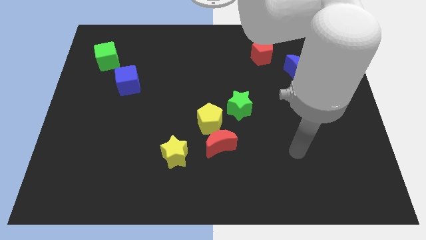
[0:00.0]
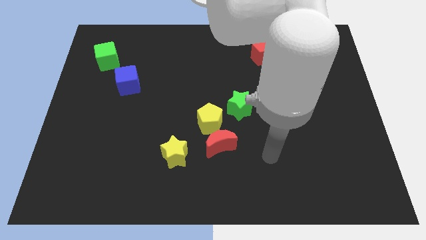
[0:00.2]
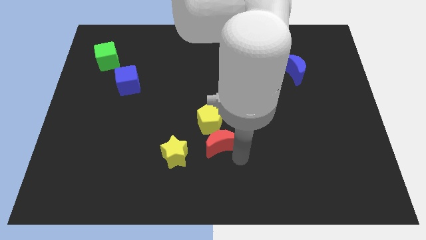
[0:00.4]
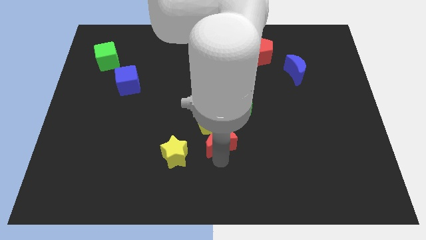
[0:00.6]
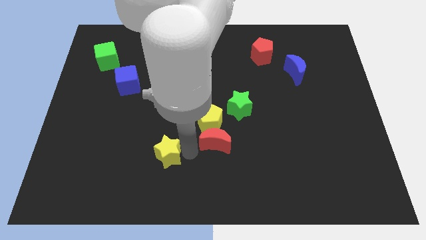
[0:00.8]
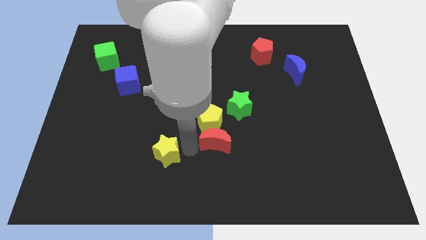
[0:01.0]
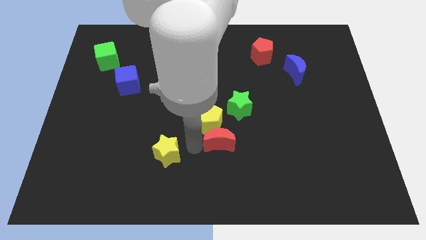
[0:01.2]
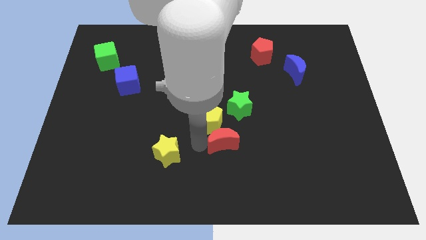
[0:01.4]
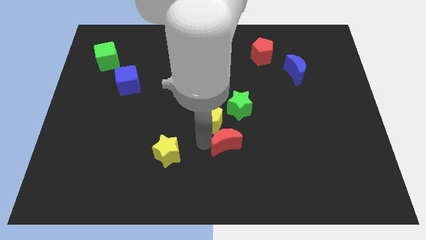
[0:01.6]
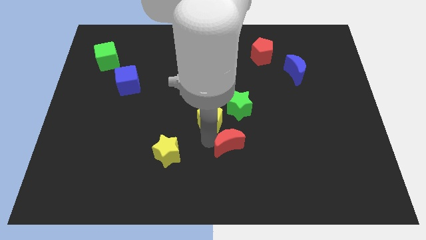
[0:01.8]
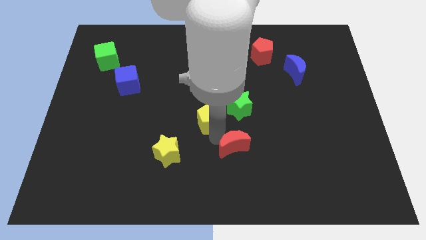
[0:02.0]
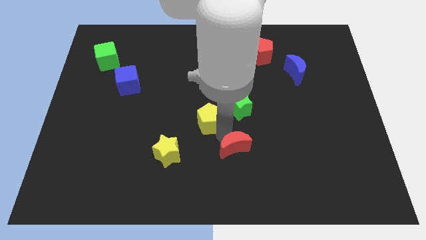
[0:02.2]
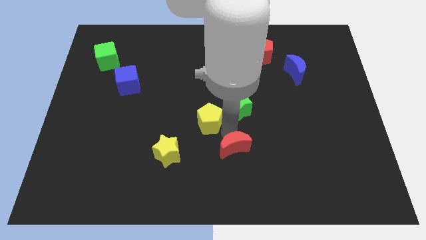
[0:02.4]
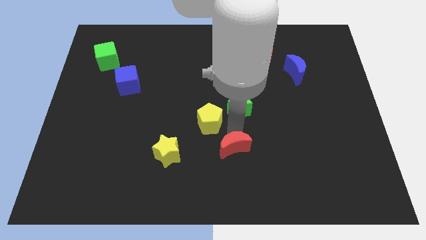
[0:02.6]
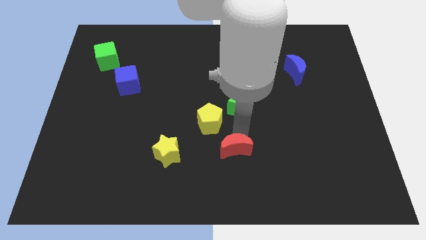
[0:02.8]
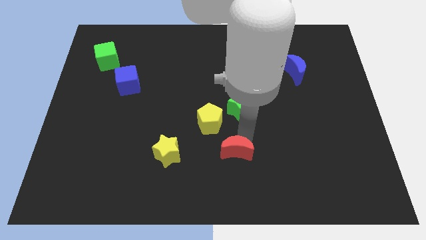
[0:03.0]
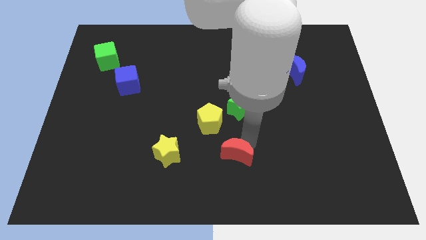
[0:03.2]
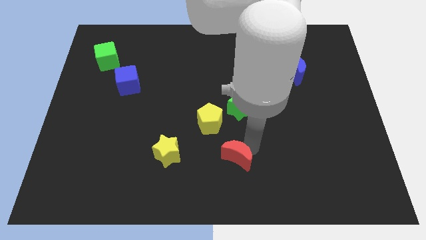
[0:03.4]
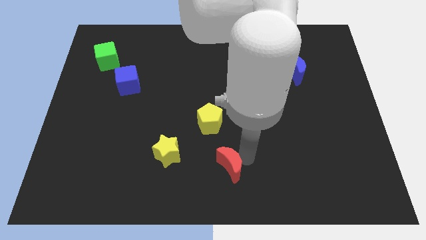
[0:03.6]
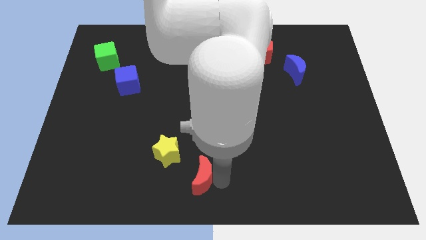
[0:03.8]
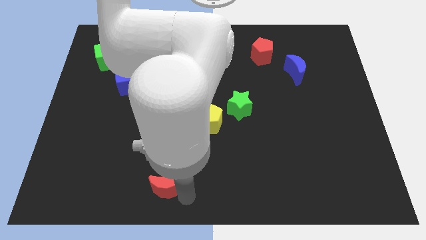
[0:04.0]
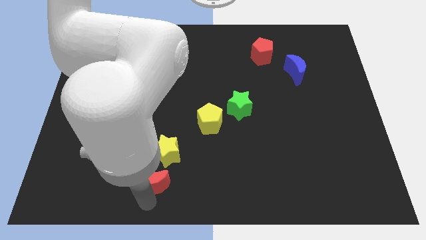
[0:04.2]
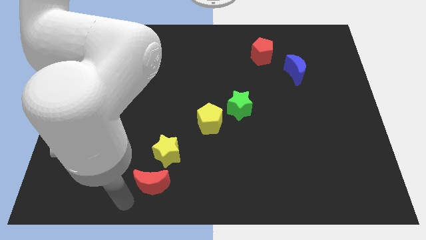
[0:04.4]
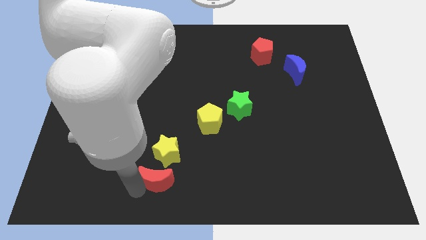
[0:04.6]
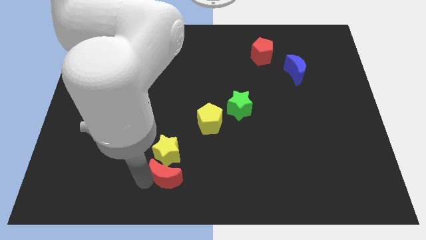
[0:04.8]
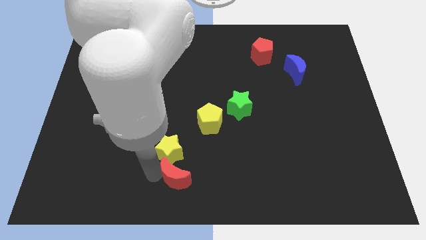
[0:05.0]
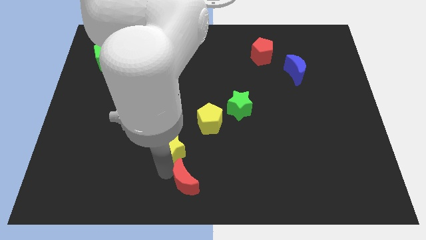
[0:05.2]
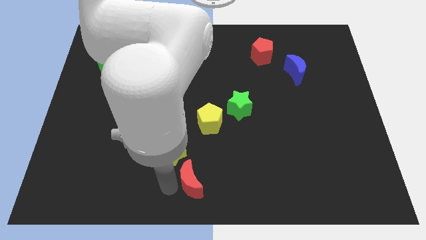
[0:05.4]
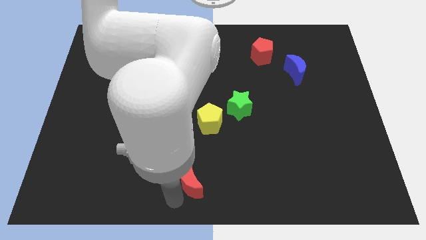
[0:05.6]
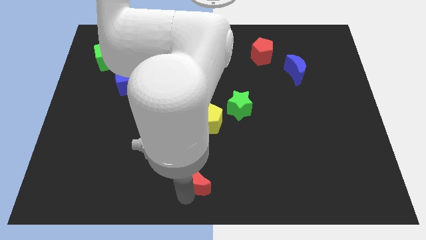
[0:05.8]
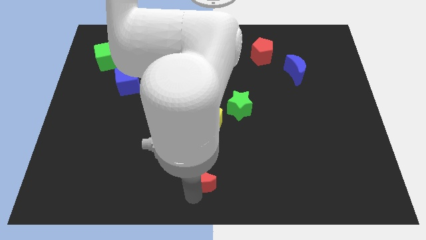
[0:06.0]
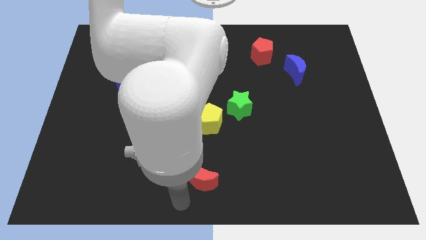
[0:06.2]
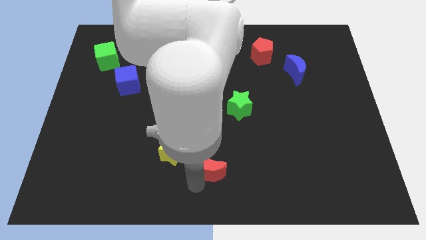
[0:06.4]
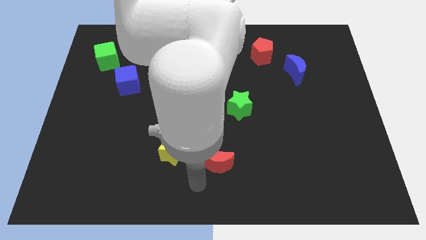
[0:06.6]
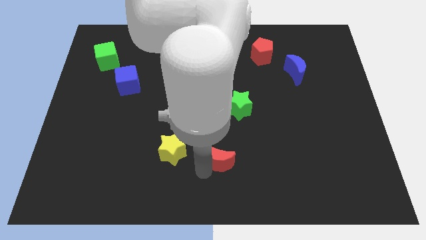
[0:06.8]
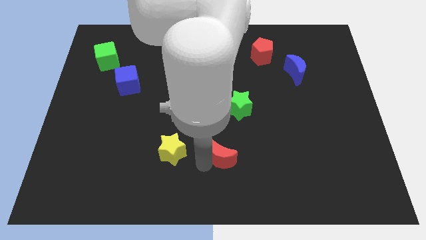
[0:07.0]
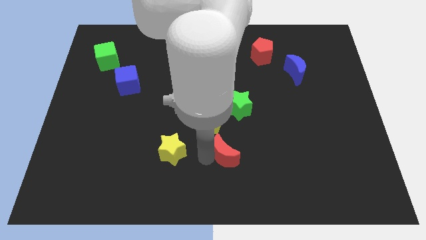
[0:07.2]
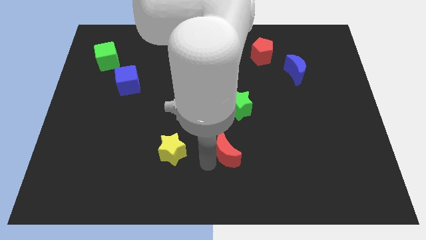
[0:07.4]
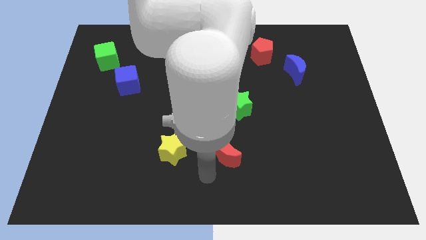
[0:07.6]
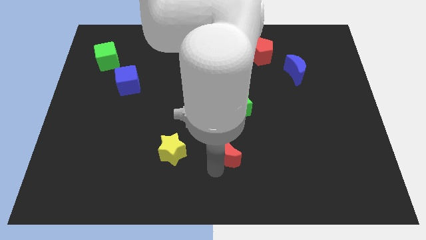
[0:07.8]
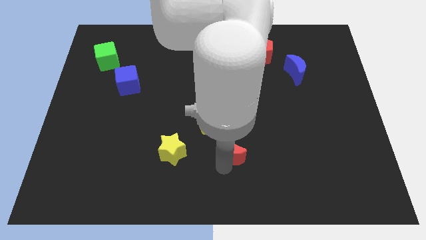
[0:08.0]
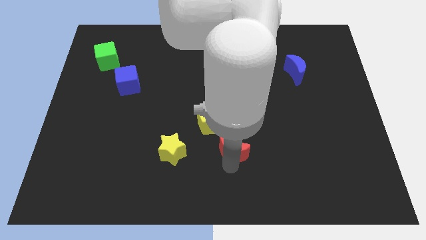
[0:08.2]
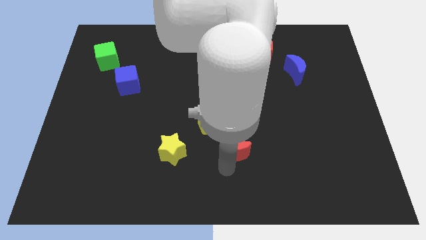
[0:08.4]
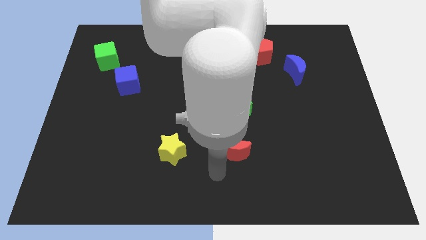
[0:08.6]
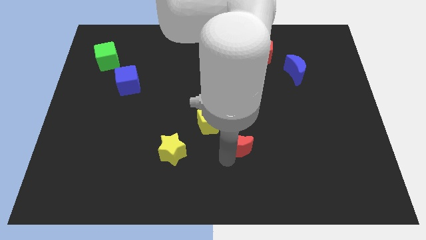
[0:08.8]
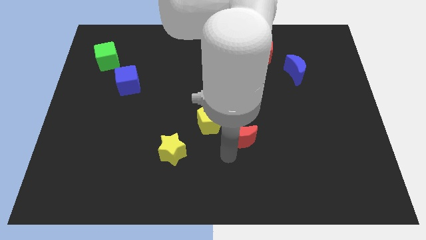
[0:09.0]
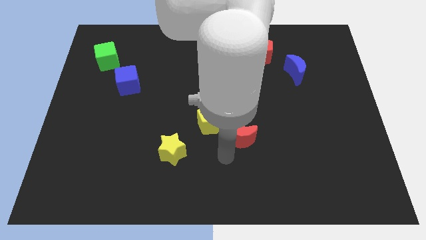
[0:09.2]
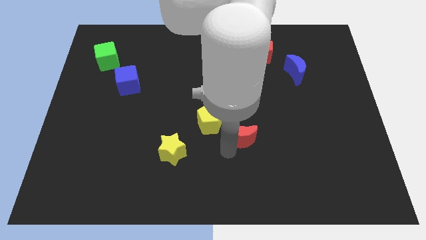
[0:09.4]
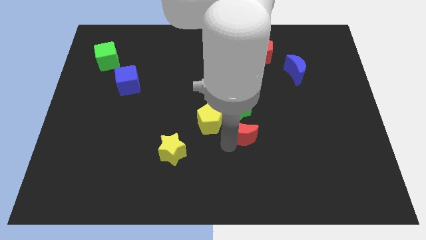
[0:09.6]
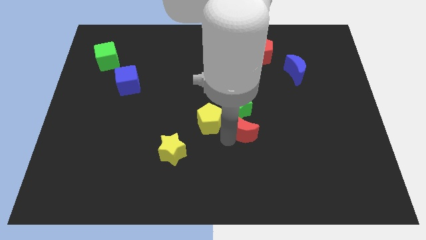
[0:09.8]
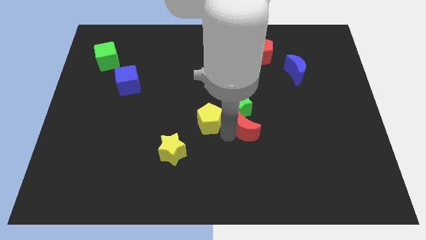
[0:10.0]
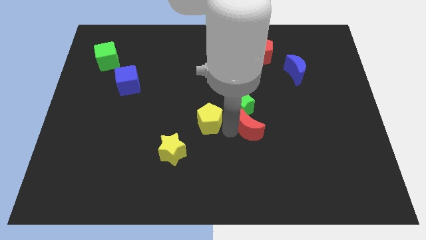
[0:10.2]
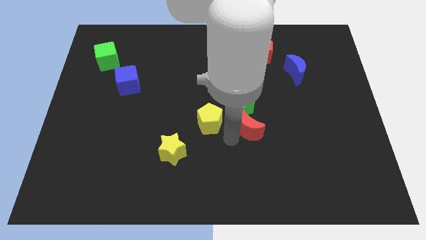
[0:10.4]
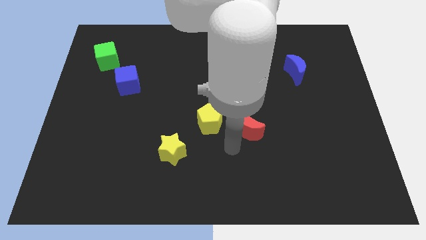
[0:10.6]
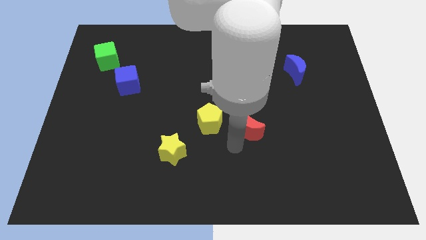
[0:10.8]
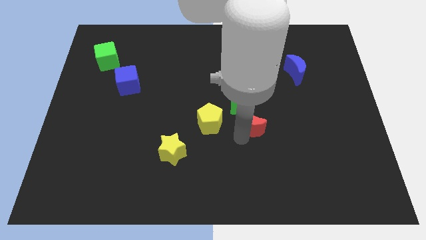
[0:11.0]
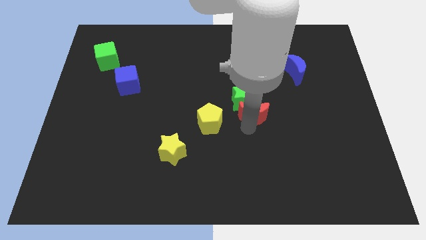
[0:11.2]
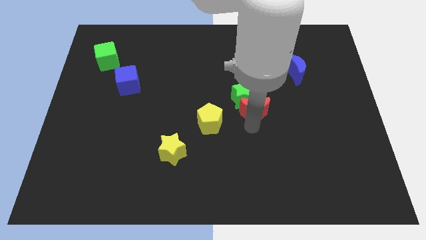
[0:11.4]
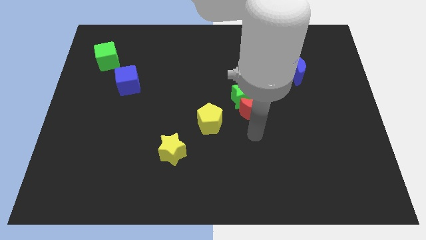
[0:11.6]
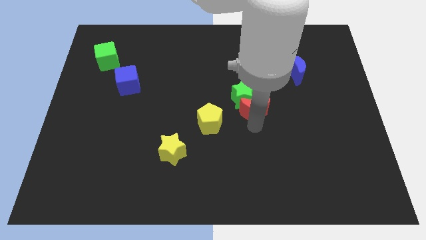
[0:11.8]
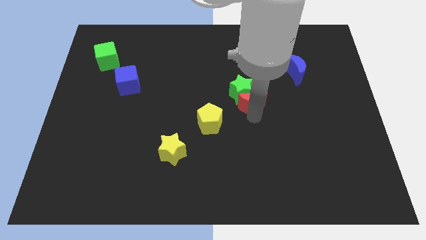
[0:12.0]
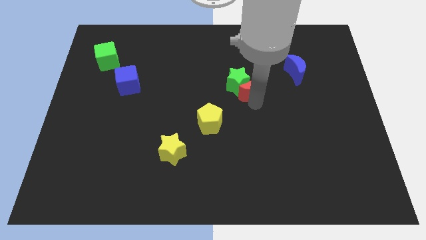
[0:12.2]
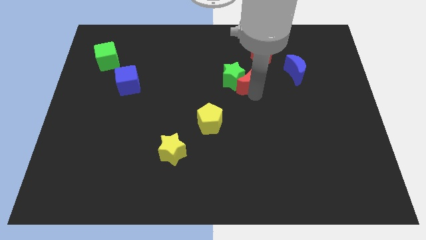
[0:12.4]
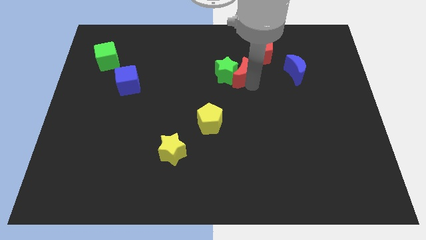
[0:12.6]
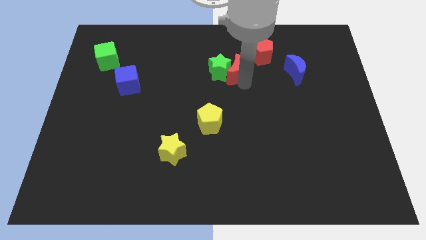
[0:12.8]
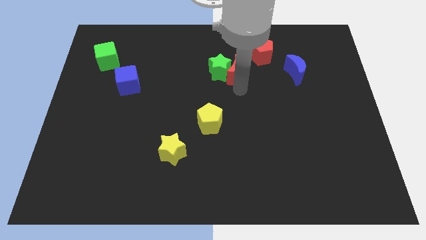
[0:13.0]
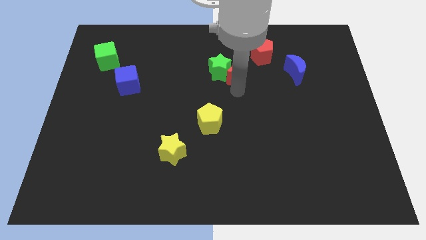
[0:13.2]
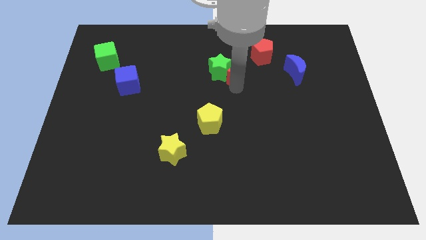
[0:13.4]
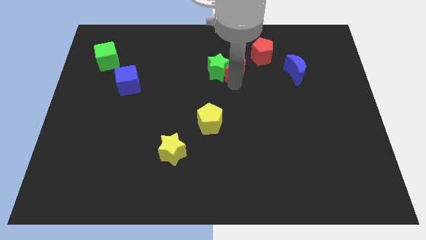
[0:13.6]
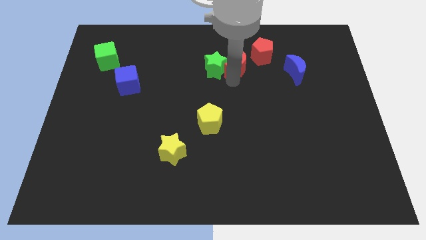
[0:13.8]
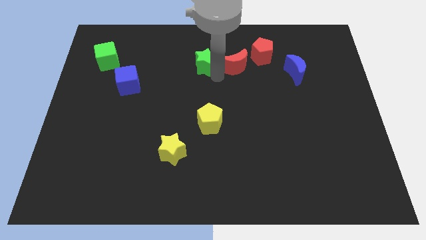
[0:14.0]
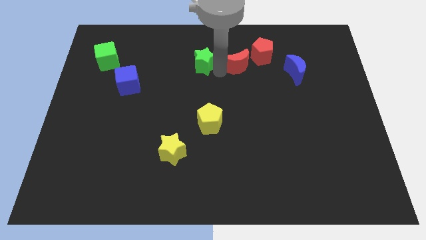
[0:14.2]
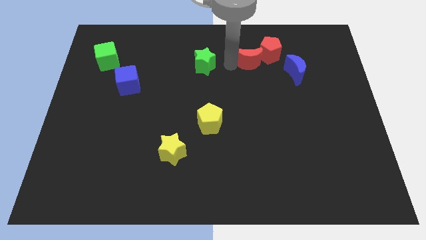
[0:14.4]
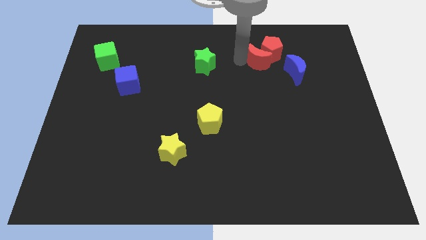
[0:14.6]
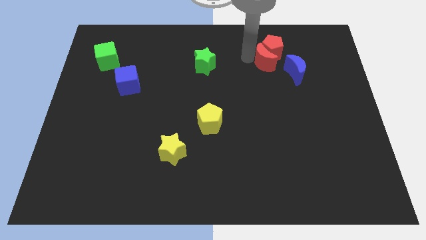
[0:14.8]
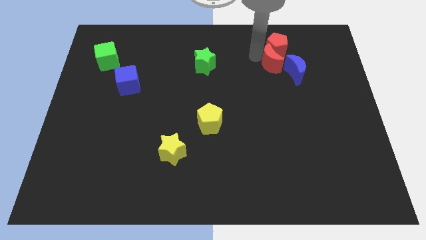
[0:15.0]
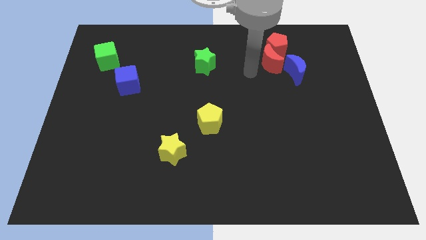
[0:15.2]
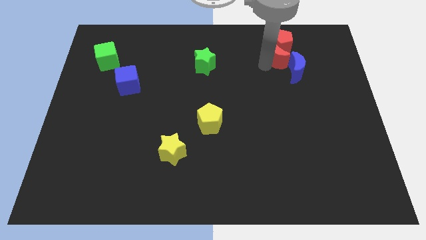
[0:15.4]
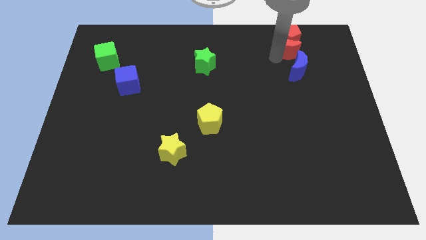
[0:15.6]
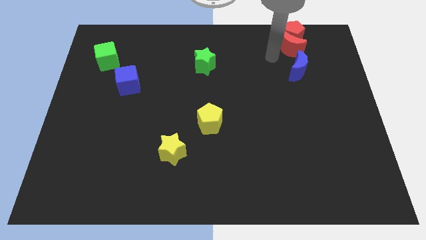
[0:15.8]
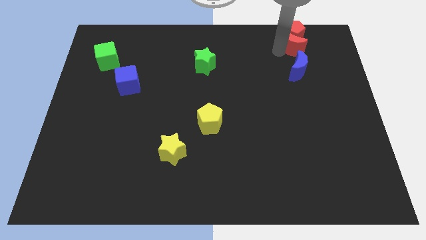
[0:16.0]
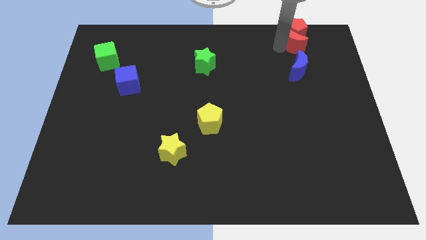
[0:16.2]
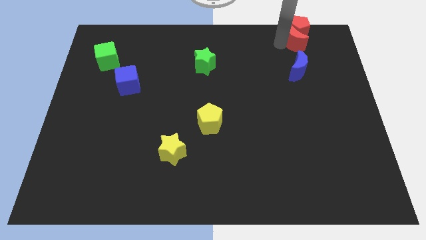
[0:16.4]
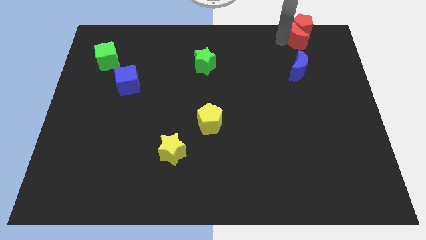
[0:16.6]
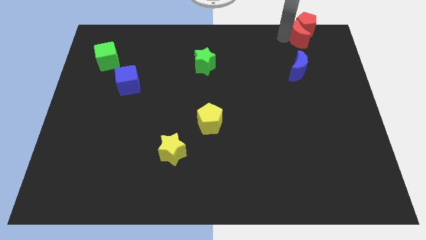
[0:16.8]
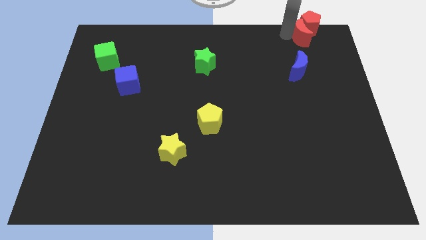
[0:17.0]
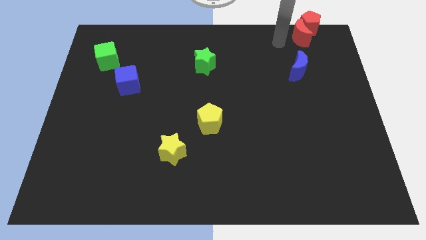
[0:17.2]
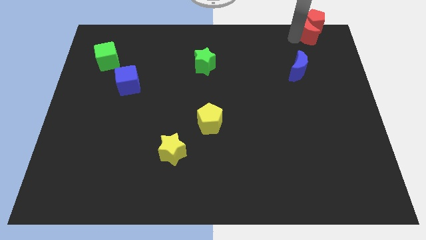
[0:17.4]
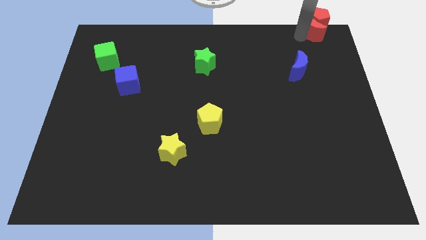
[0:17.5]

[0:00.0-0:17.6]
push the red moon to the top right of the board
